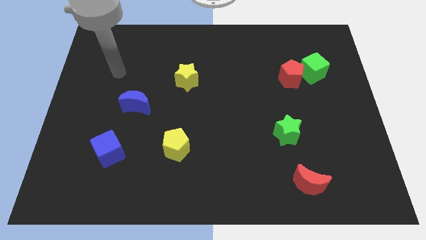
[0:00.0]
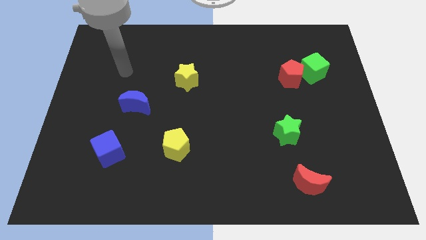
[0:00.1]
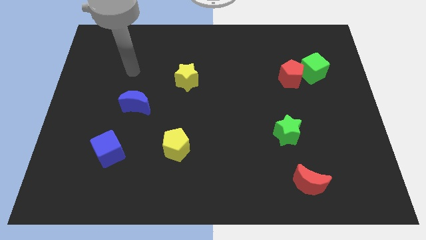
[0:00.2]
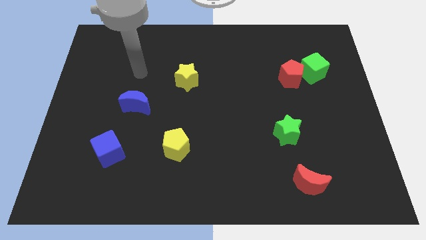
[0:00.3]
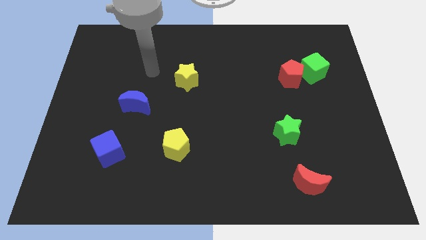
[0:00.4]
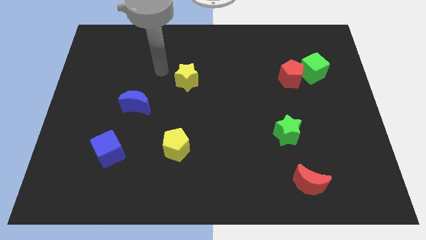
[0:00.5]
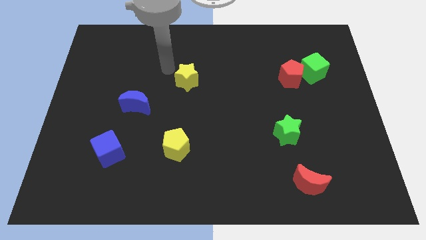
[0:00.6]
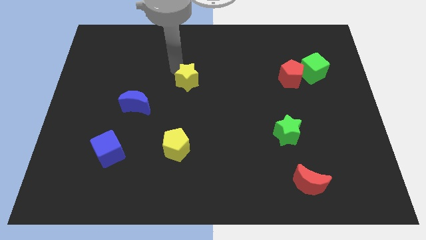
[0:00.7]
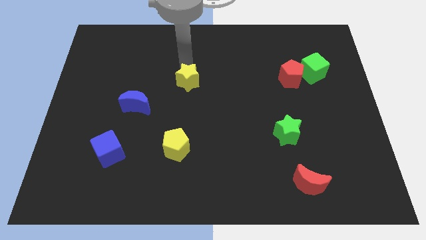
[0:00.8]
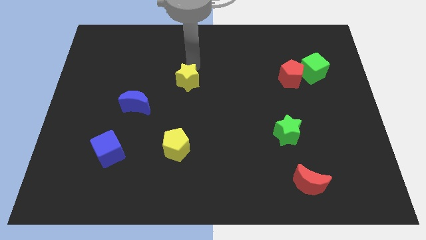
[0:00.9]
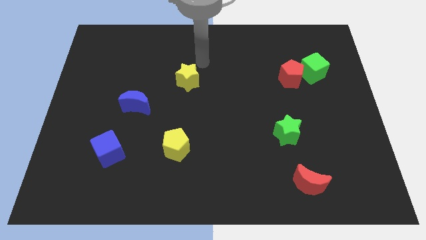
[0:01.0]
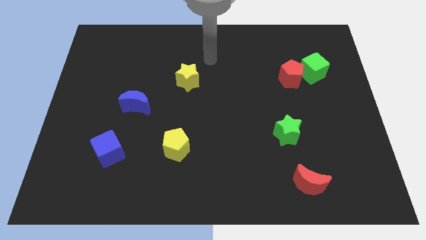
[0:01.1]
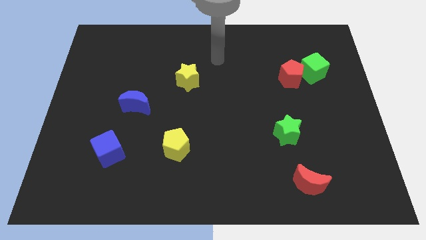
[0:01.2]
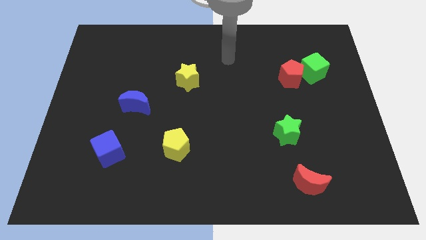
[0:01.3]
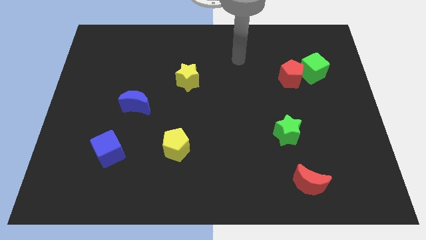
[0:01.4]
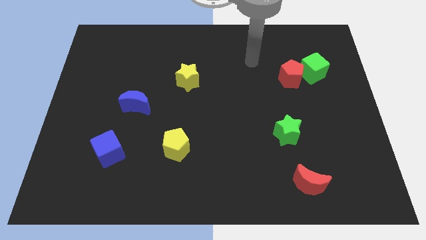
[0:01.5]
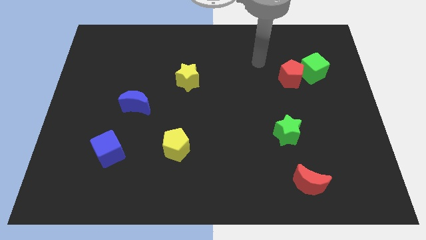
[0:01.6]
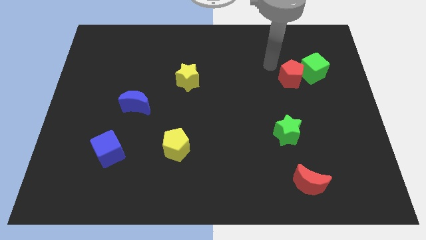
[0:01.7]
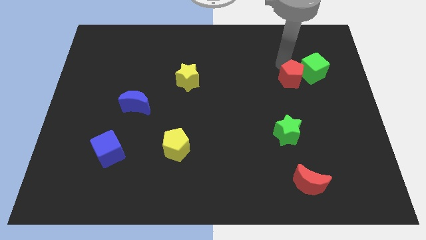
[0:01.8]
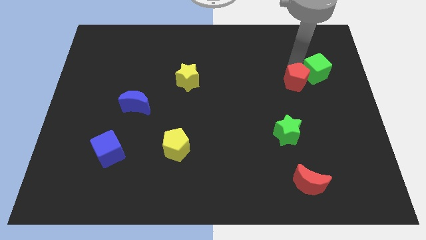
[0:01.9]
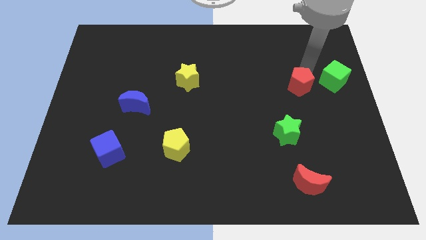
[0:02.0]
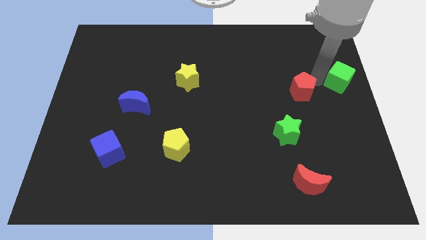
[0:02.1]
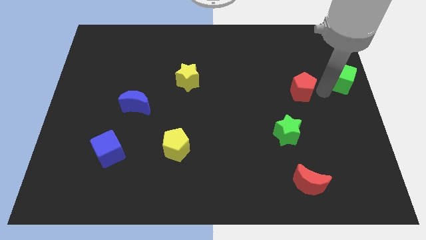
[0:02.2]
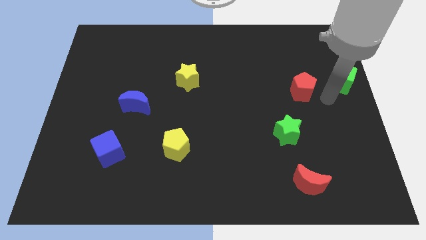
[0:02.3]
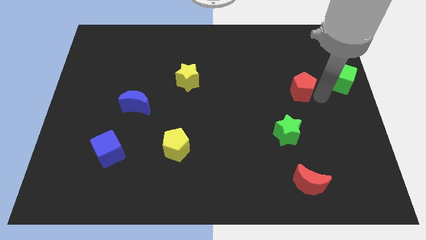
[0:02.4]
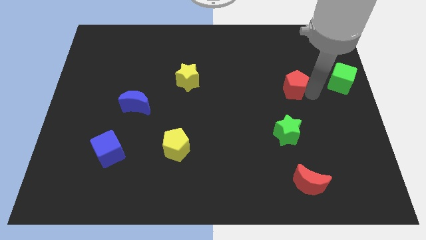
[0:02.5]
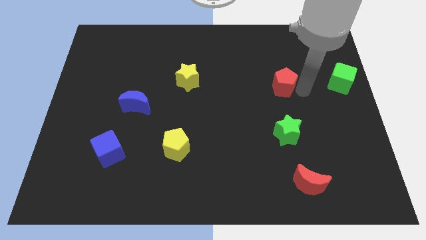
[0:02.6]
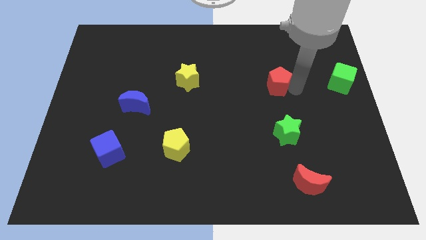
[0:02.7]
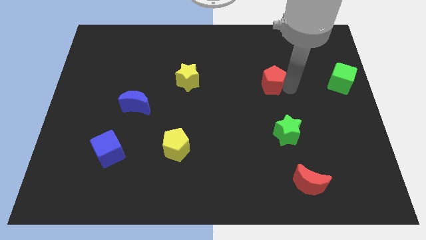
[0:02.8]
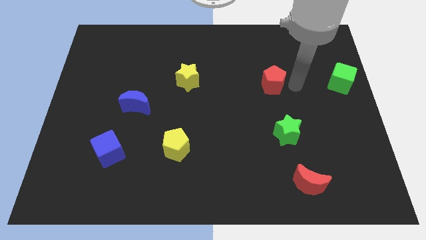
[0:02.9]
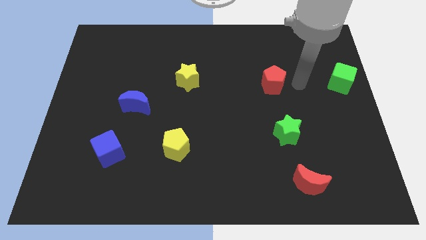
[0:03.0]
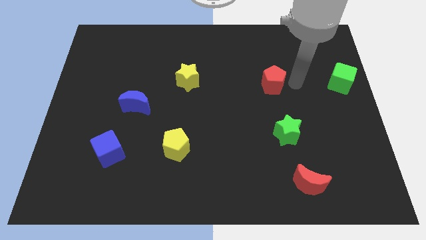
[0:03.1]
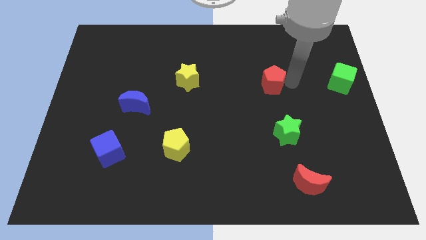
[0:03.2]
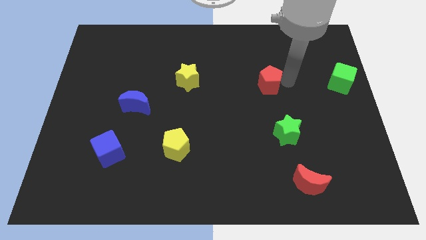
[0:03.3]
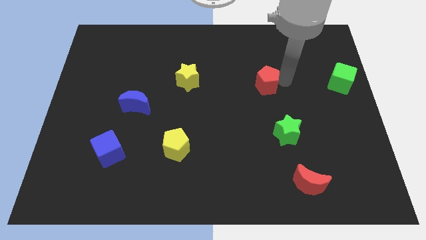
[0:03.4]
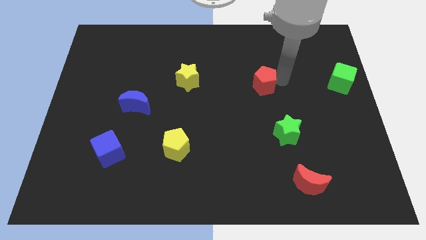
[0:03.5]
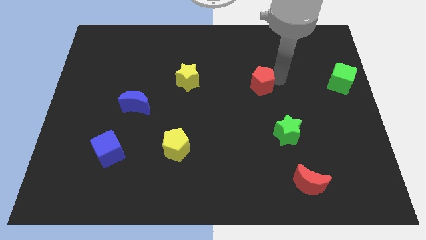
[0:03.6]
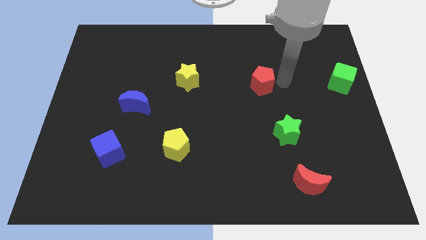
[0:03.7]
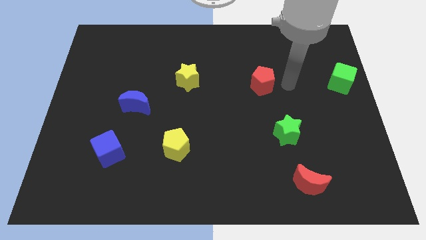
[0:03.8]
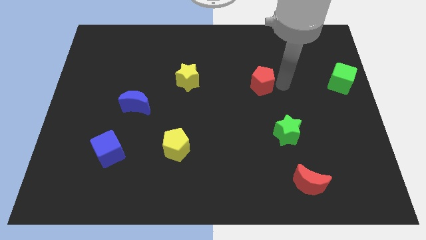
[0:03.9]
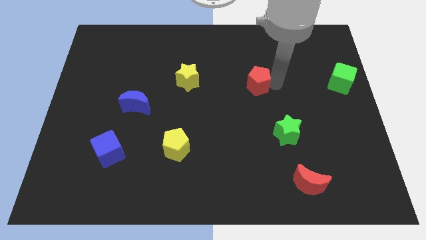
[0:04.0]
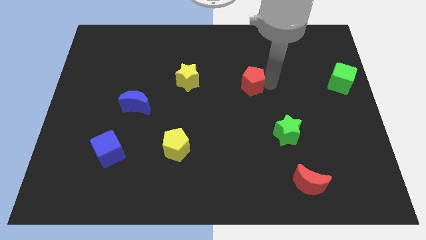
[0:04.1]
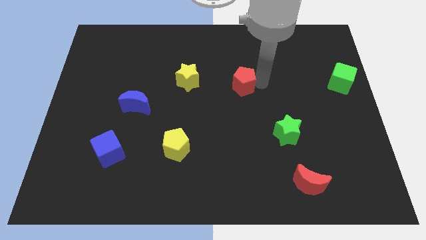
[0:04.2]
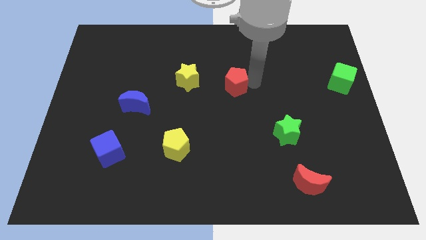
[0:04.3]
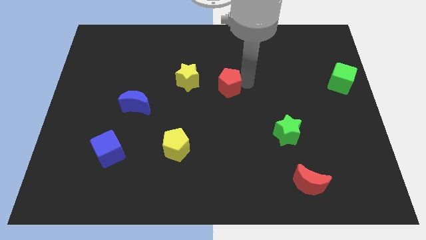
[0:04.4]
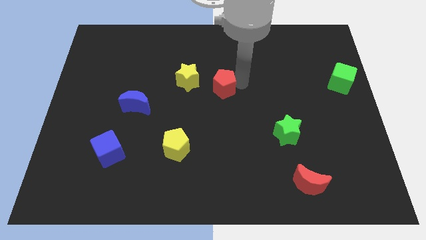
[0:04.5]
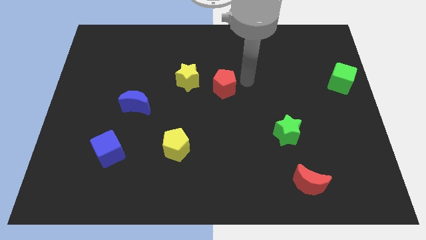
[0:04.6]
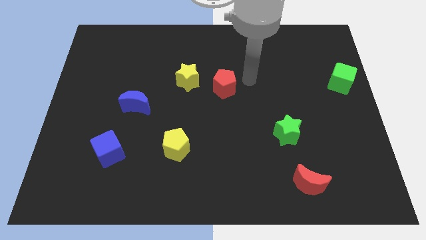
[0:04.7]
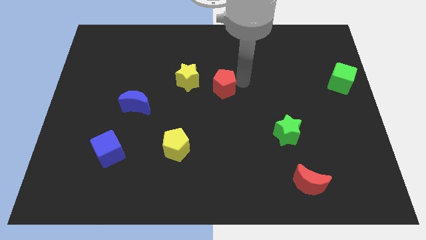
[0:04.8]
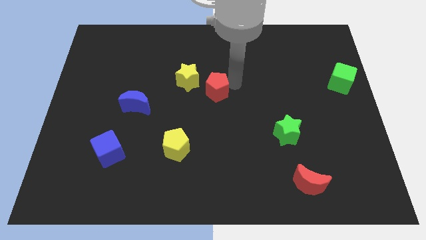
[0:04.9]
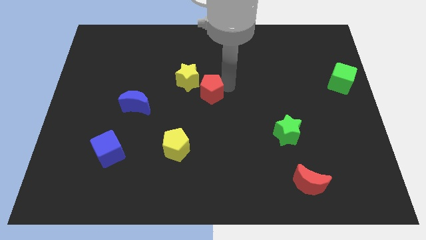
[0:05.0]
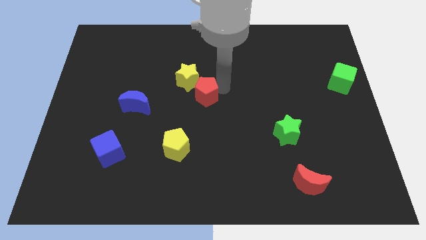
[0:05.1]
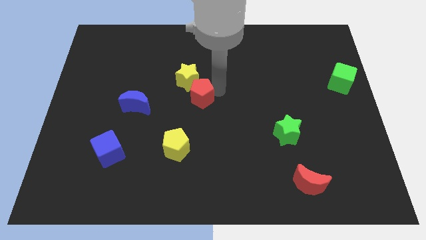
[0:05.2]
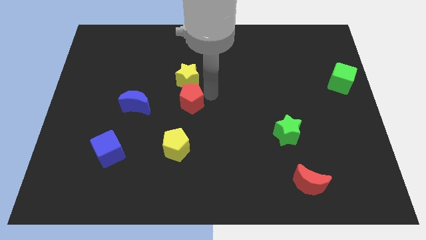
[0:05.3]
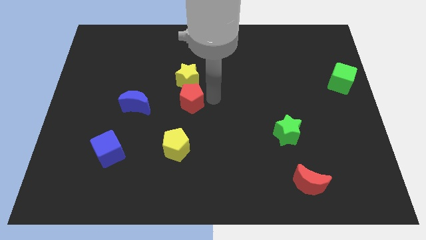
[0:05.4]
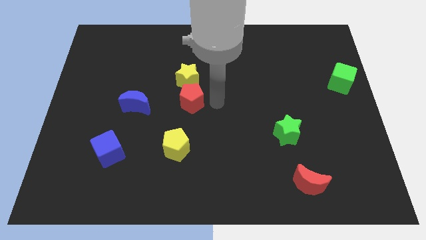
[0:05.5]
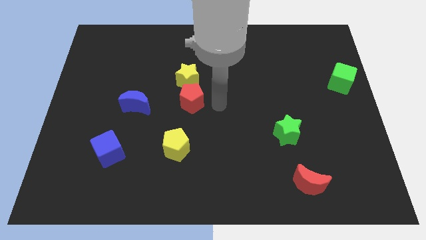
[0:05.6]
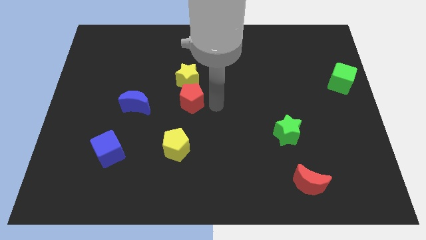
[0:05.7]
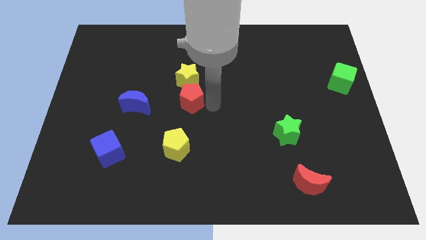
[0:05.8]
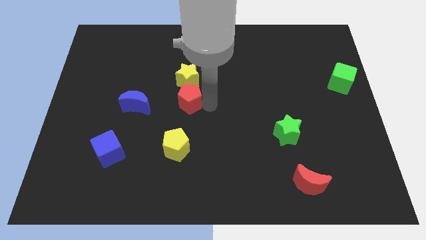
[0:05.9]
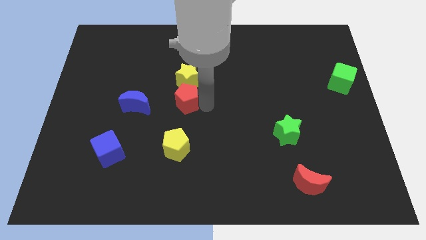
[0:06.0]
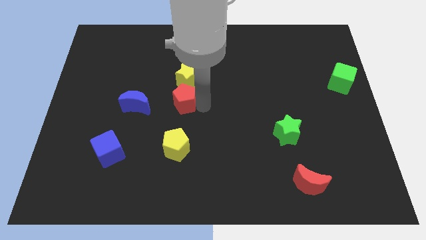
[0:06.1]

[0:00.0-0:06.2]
move the red pentagon to the bottom left side of the yellow star

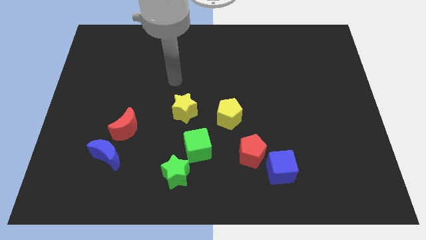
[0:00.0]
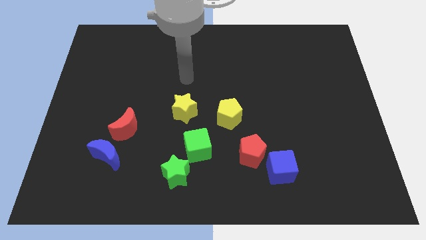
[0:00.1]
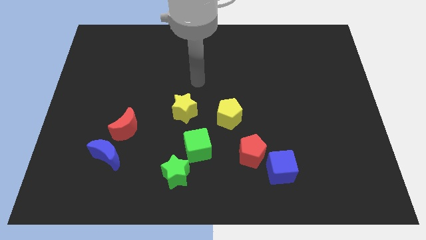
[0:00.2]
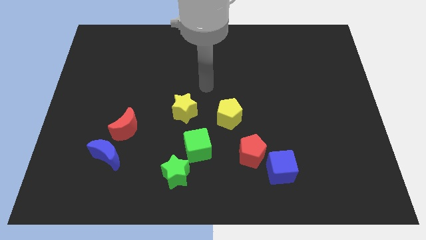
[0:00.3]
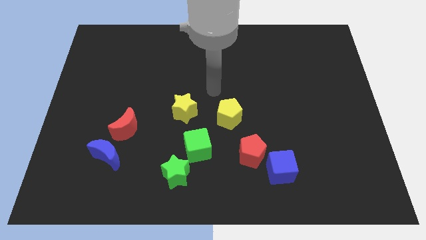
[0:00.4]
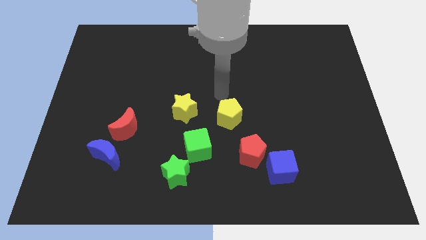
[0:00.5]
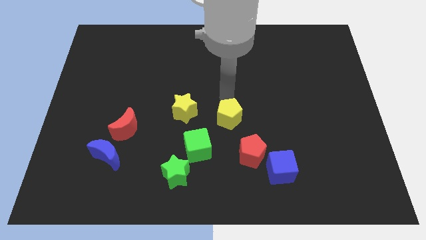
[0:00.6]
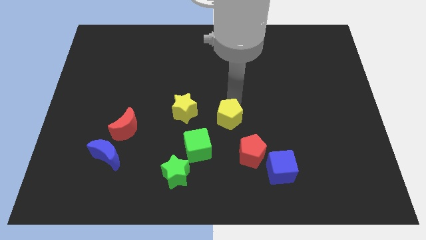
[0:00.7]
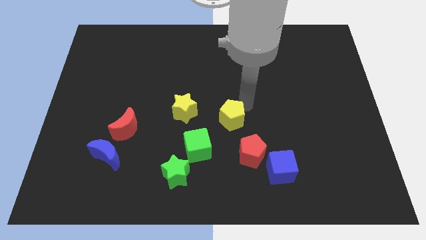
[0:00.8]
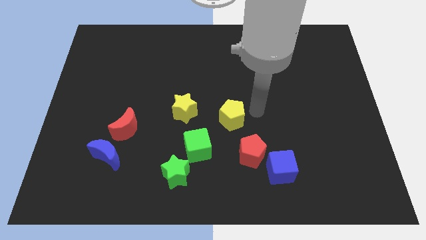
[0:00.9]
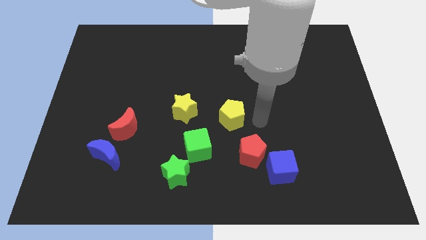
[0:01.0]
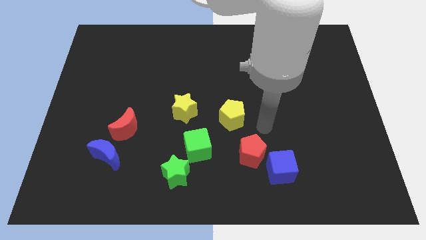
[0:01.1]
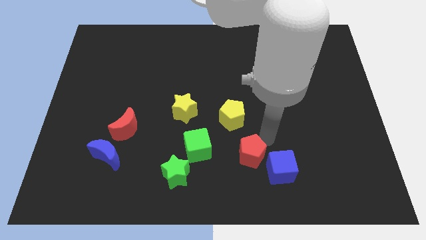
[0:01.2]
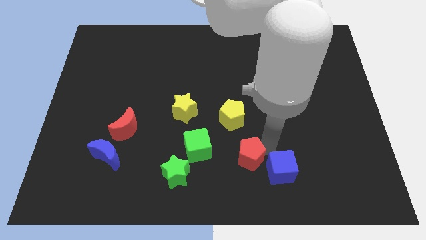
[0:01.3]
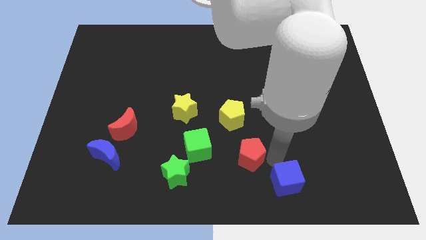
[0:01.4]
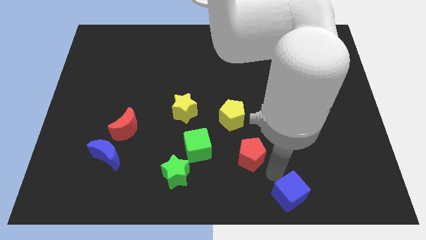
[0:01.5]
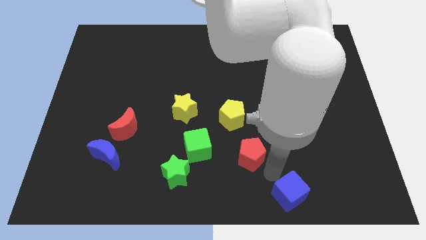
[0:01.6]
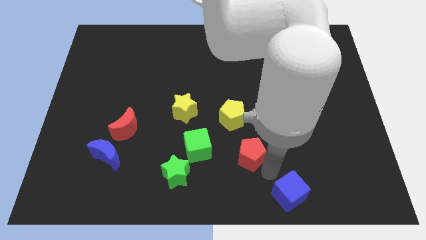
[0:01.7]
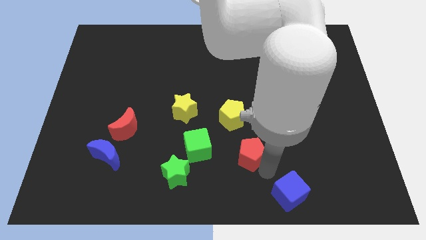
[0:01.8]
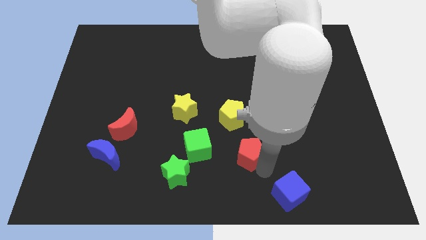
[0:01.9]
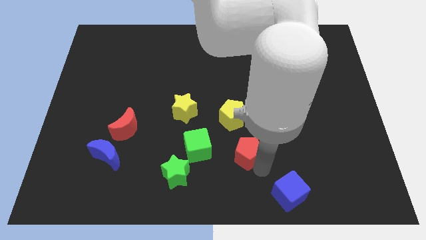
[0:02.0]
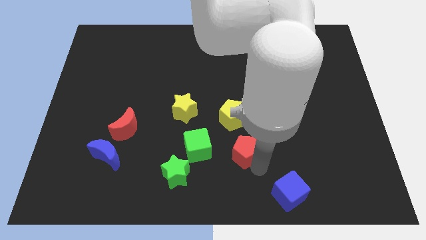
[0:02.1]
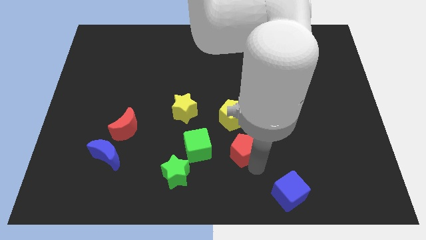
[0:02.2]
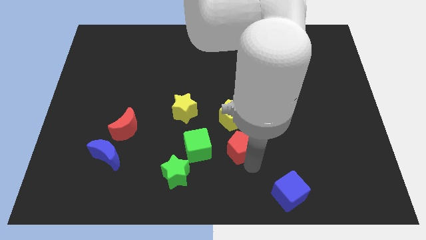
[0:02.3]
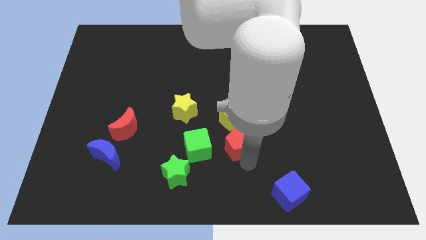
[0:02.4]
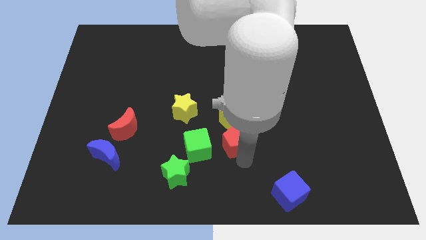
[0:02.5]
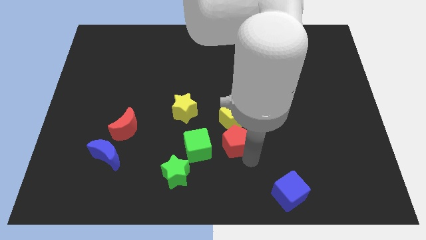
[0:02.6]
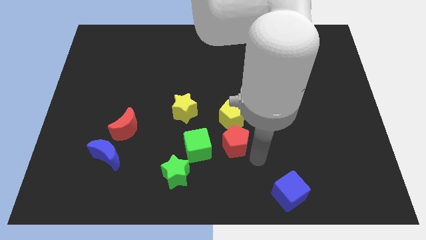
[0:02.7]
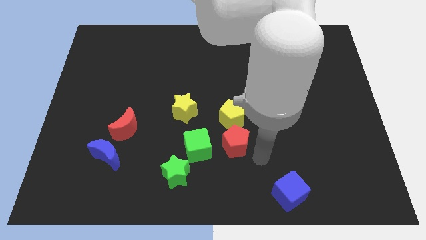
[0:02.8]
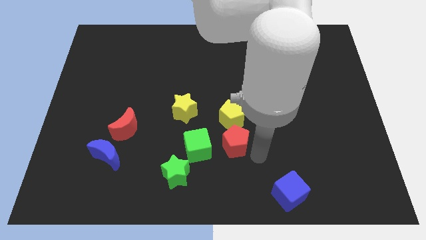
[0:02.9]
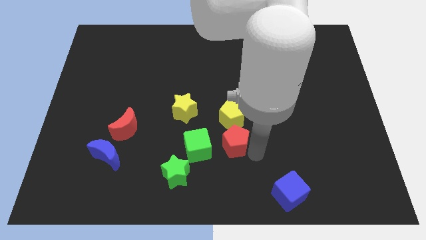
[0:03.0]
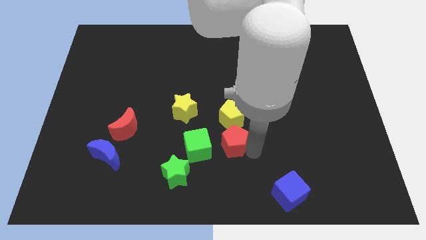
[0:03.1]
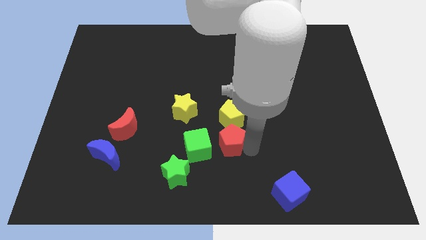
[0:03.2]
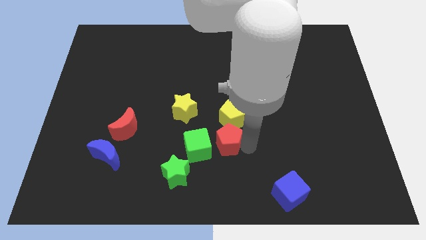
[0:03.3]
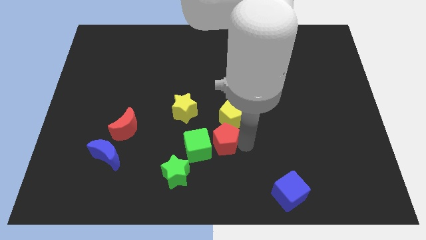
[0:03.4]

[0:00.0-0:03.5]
push the red pentagon to the bottom right of the yellow star
